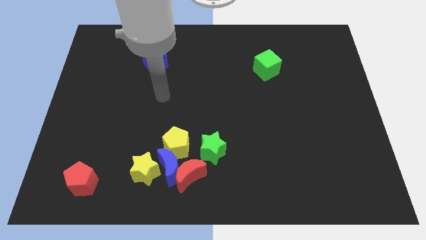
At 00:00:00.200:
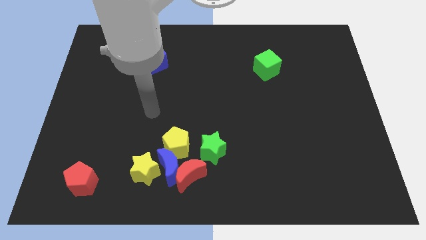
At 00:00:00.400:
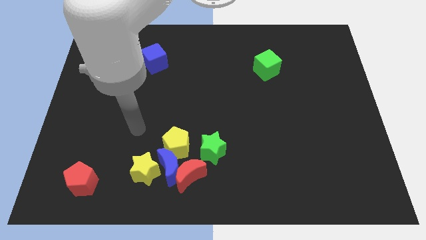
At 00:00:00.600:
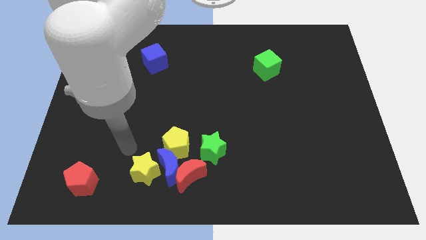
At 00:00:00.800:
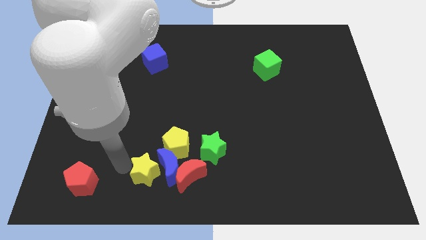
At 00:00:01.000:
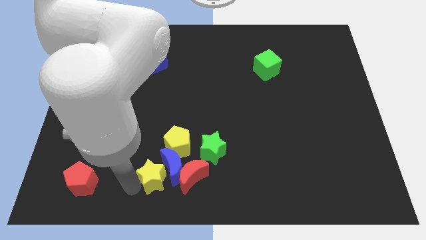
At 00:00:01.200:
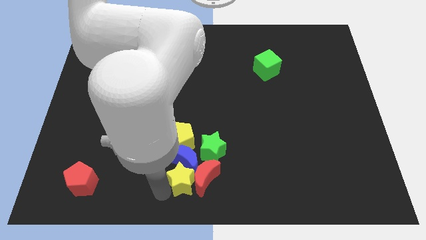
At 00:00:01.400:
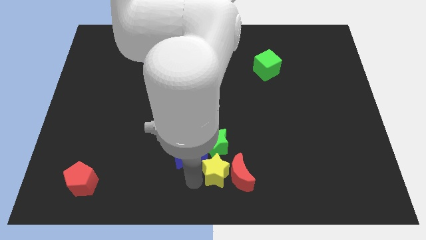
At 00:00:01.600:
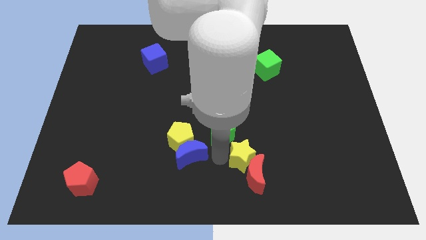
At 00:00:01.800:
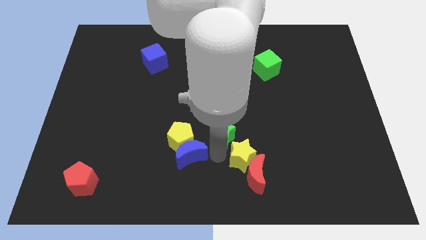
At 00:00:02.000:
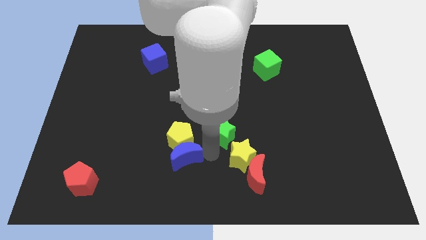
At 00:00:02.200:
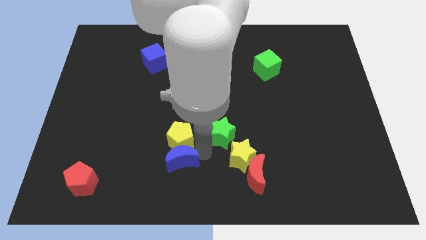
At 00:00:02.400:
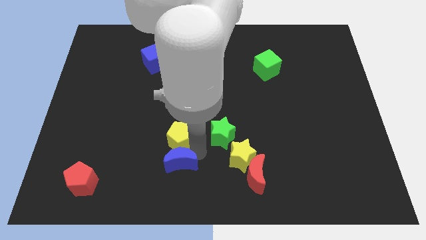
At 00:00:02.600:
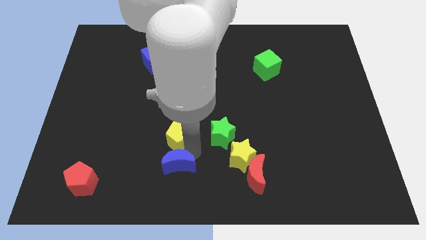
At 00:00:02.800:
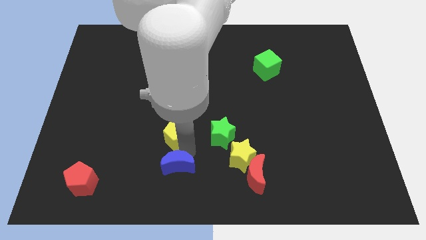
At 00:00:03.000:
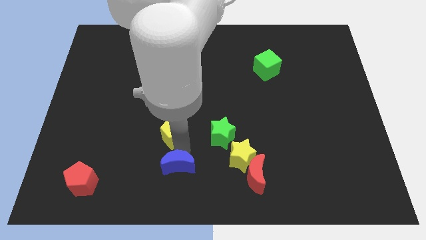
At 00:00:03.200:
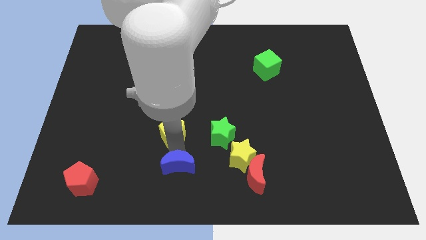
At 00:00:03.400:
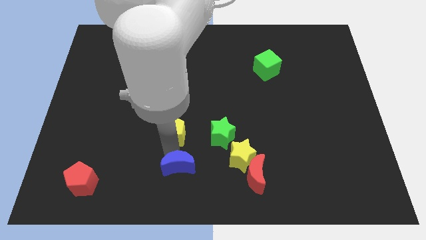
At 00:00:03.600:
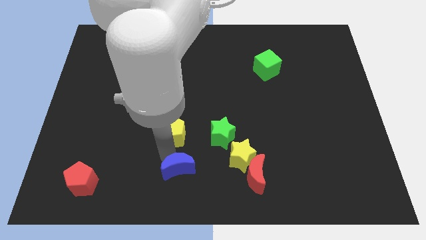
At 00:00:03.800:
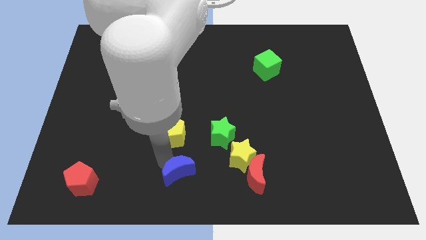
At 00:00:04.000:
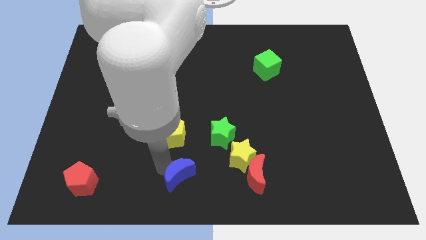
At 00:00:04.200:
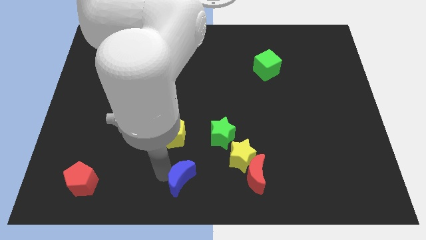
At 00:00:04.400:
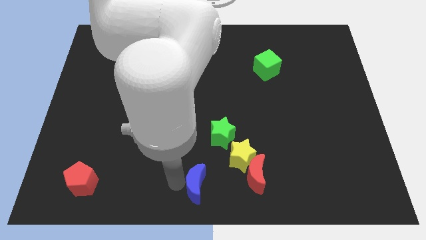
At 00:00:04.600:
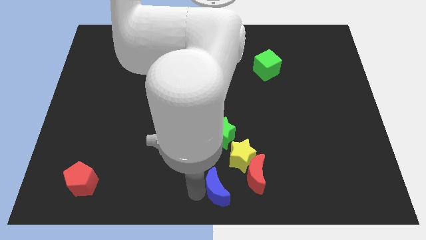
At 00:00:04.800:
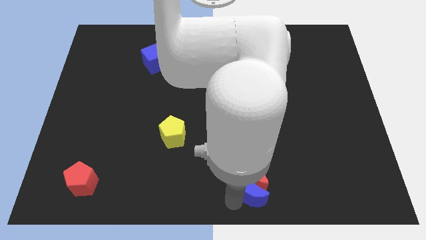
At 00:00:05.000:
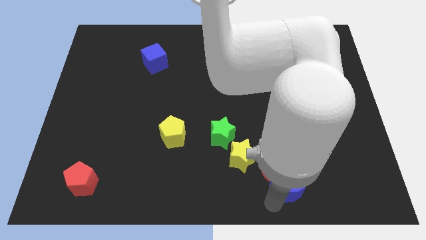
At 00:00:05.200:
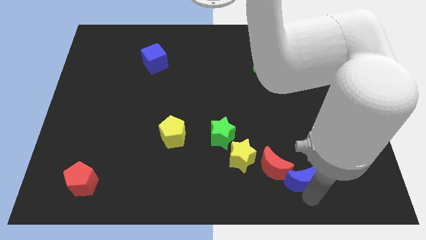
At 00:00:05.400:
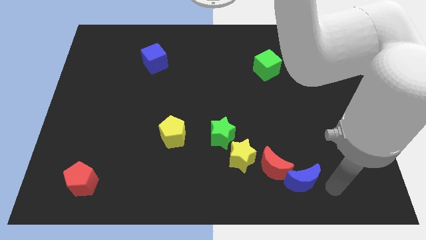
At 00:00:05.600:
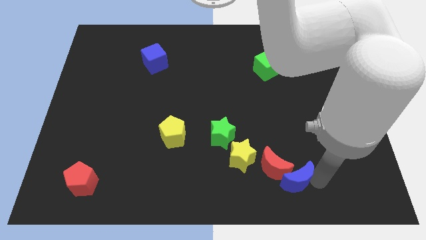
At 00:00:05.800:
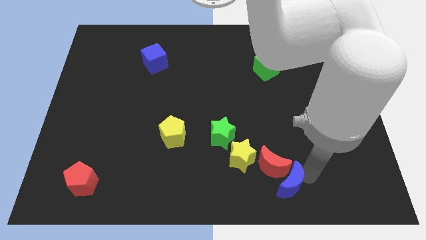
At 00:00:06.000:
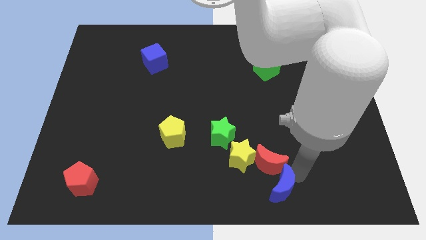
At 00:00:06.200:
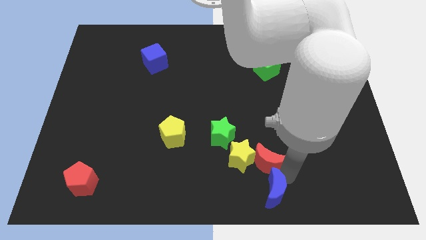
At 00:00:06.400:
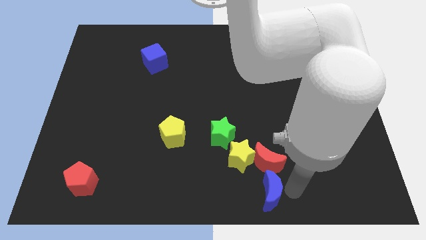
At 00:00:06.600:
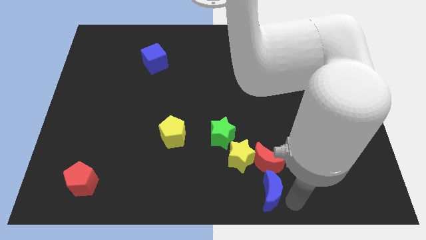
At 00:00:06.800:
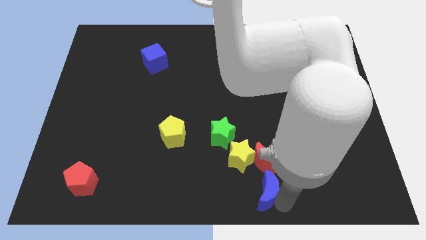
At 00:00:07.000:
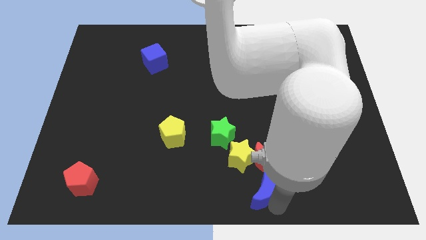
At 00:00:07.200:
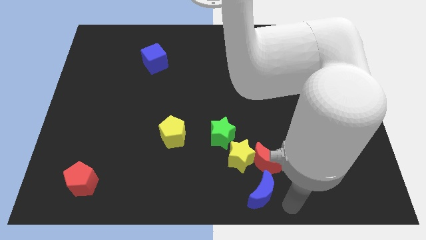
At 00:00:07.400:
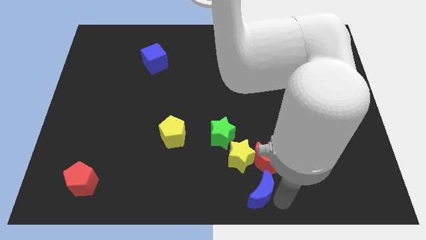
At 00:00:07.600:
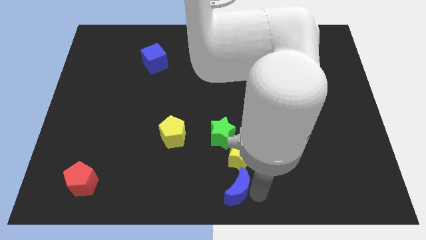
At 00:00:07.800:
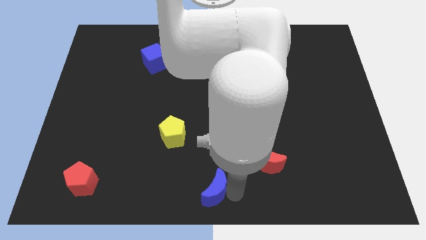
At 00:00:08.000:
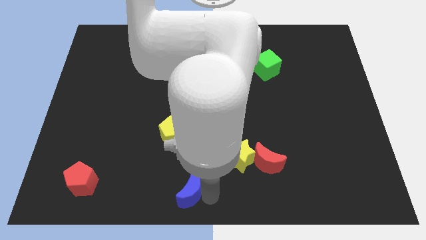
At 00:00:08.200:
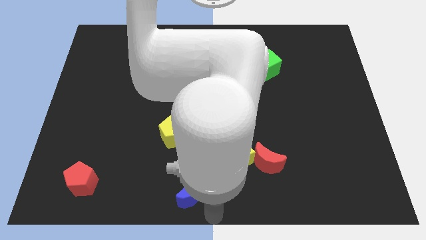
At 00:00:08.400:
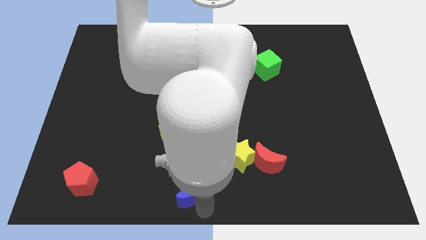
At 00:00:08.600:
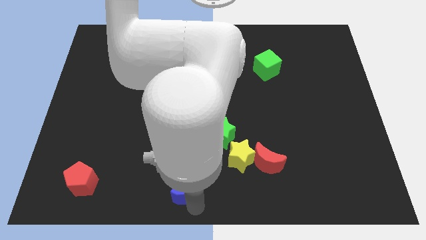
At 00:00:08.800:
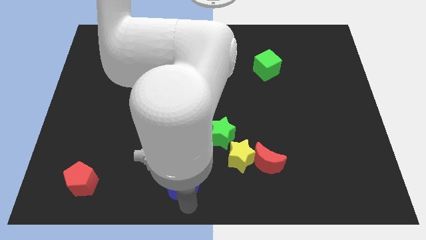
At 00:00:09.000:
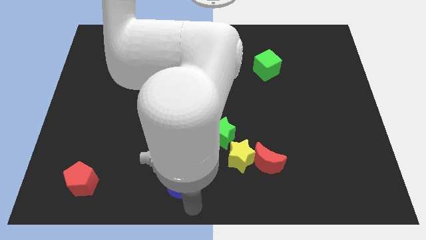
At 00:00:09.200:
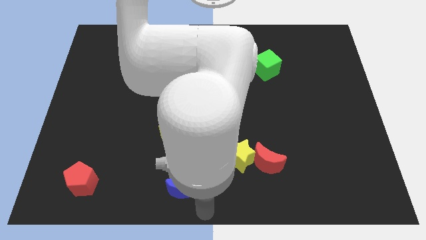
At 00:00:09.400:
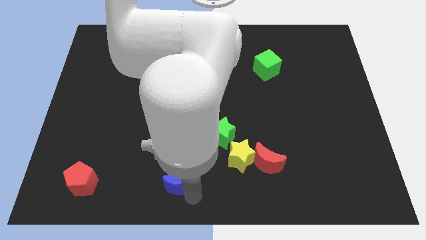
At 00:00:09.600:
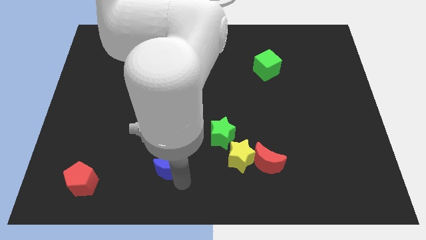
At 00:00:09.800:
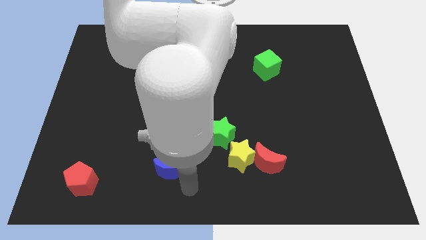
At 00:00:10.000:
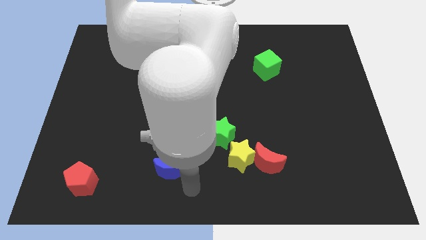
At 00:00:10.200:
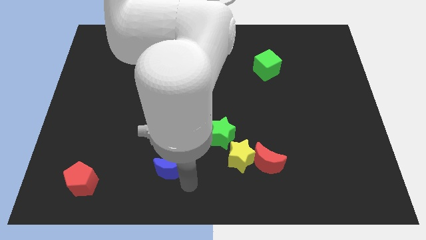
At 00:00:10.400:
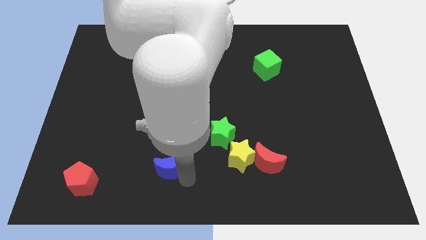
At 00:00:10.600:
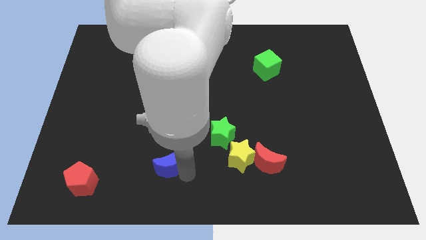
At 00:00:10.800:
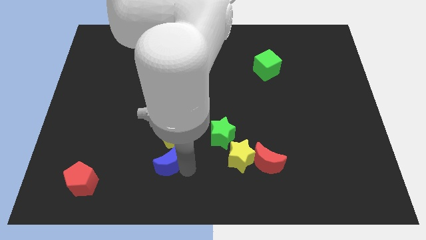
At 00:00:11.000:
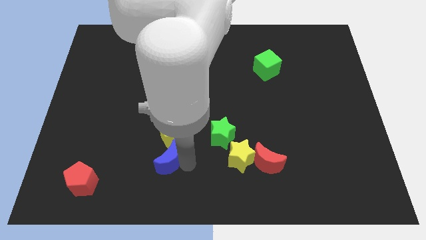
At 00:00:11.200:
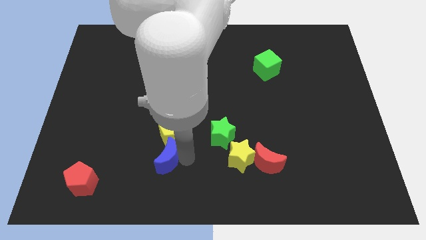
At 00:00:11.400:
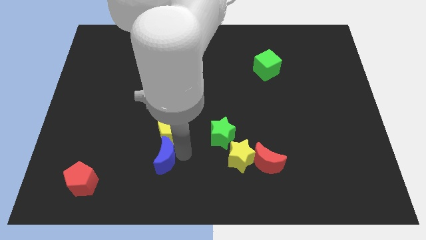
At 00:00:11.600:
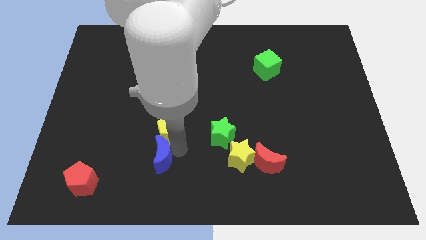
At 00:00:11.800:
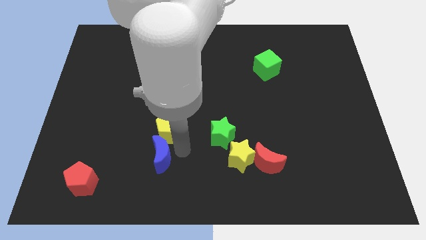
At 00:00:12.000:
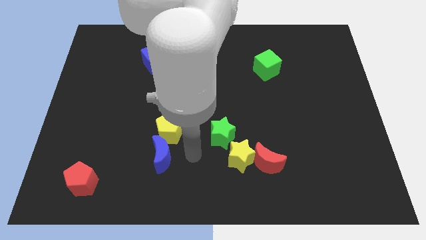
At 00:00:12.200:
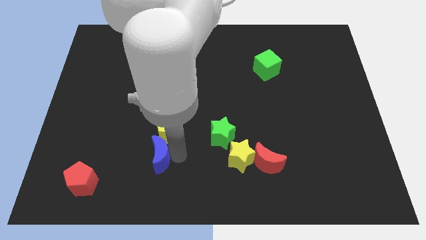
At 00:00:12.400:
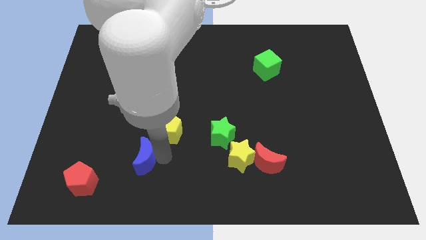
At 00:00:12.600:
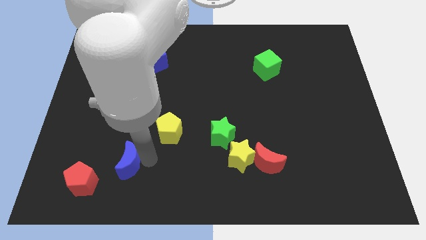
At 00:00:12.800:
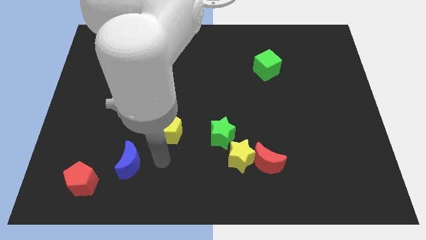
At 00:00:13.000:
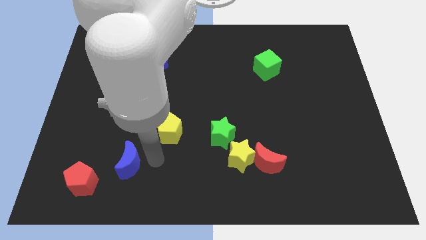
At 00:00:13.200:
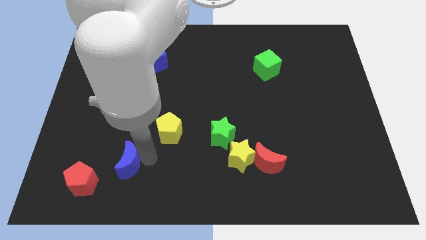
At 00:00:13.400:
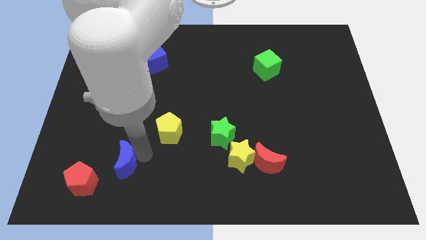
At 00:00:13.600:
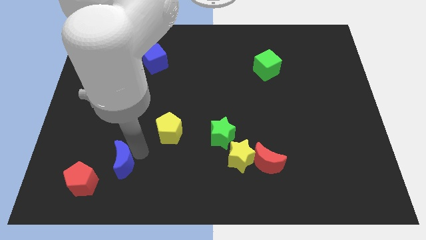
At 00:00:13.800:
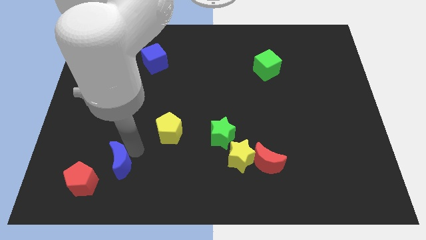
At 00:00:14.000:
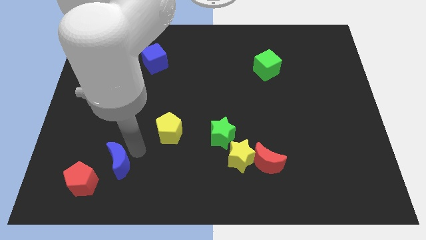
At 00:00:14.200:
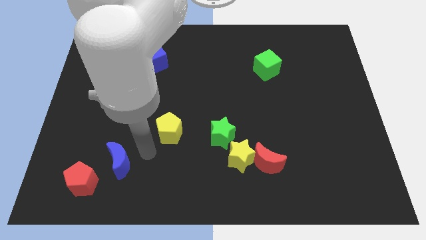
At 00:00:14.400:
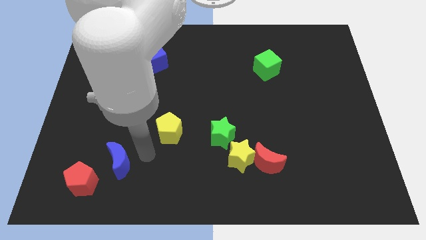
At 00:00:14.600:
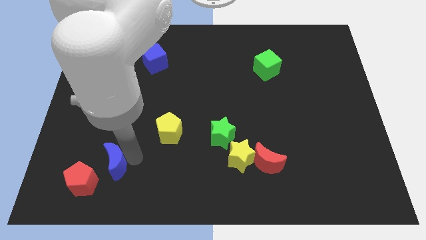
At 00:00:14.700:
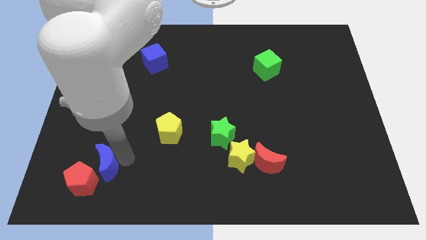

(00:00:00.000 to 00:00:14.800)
move the blue moon towards the red pentagon
